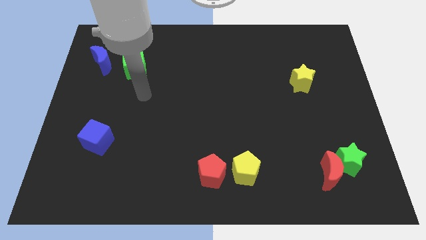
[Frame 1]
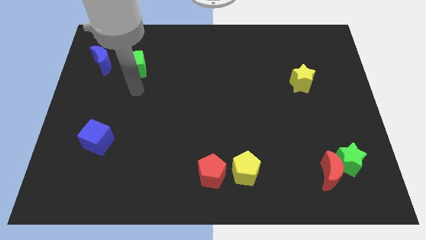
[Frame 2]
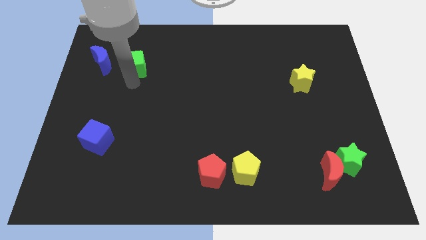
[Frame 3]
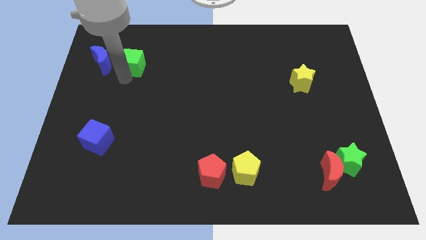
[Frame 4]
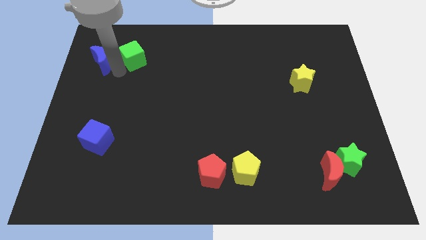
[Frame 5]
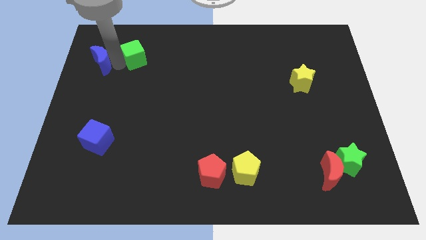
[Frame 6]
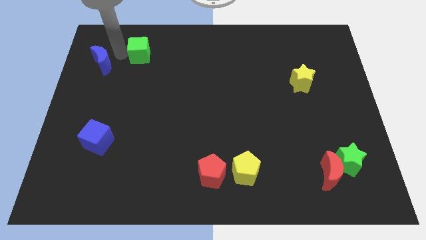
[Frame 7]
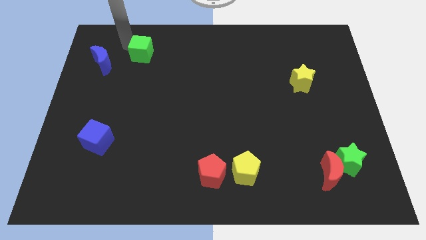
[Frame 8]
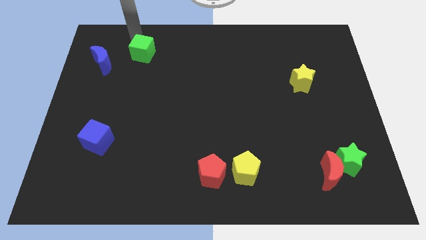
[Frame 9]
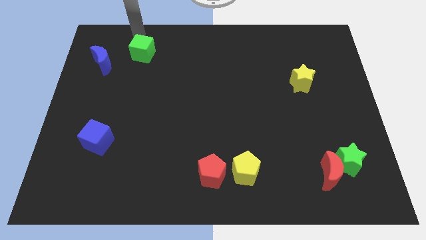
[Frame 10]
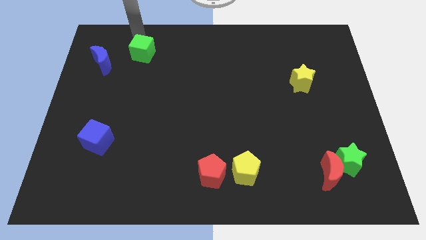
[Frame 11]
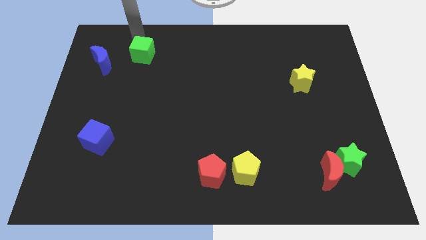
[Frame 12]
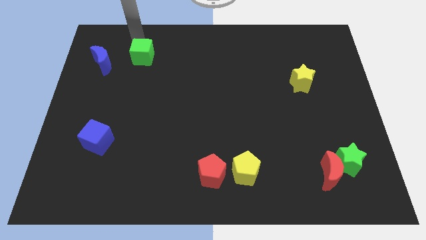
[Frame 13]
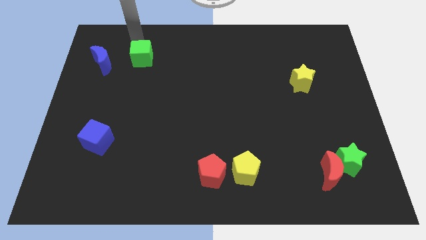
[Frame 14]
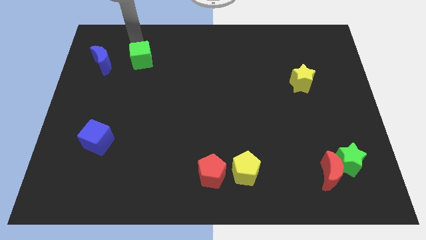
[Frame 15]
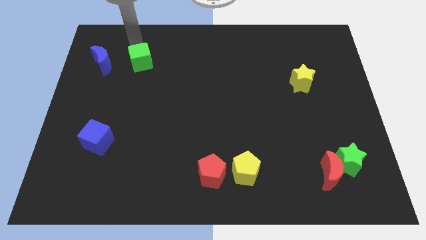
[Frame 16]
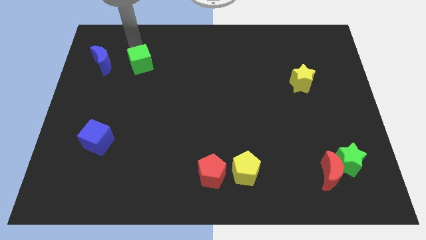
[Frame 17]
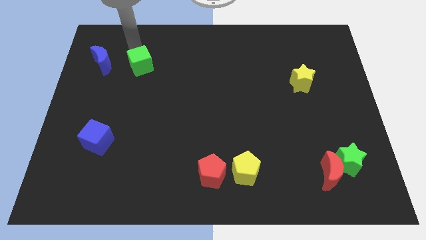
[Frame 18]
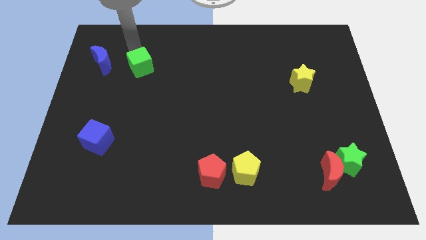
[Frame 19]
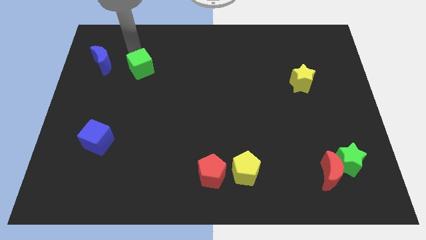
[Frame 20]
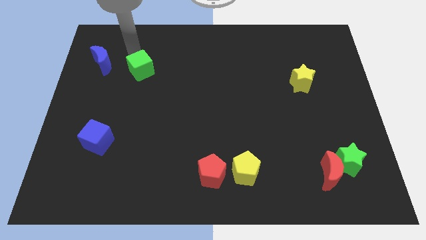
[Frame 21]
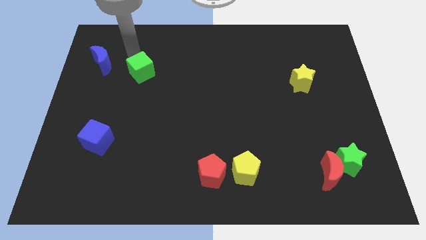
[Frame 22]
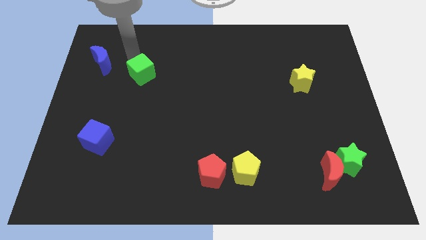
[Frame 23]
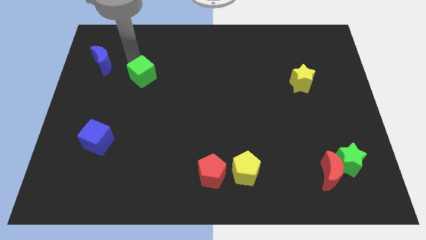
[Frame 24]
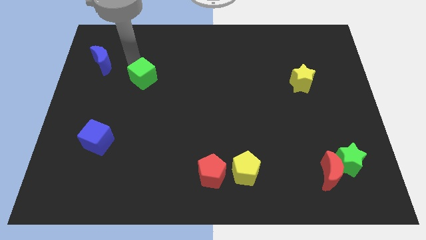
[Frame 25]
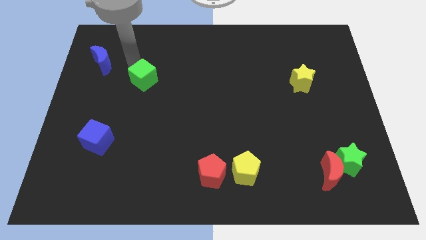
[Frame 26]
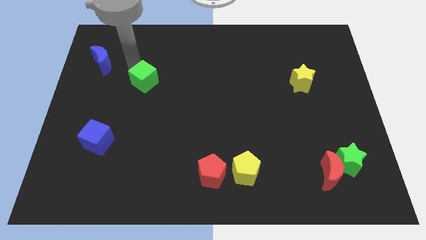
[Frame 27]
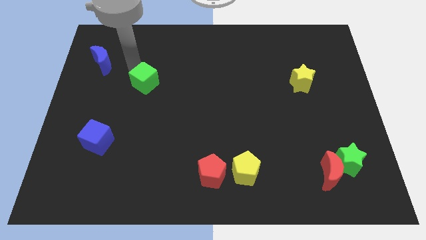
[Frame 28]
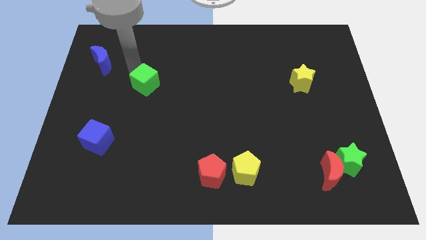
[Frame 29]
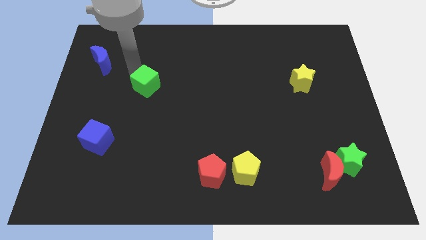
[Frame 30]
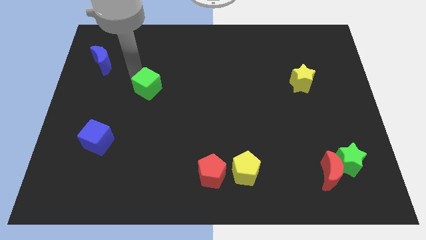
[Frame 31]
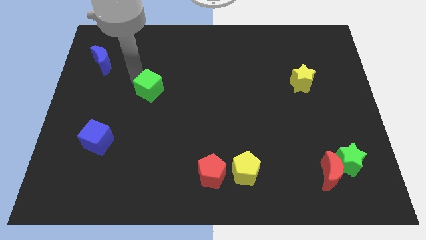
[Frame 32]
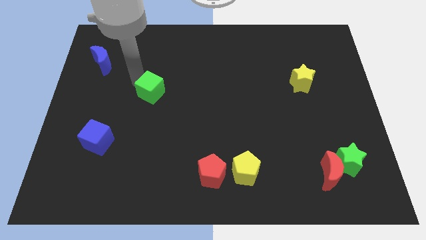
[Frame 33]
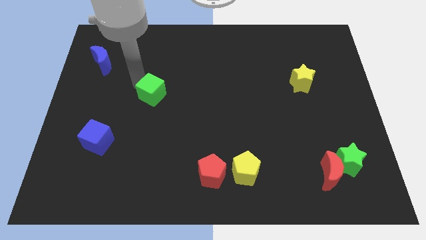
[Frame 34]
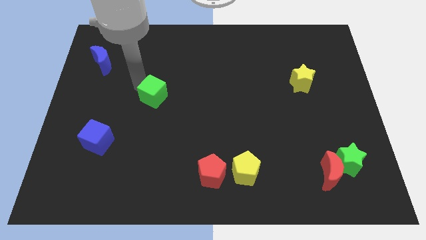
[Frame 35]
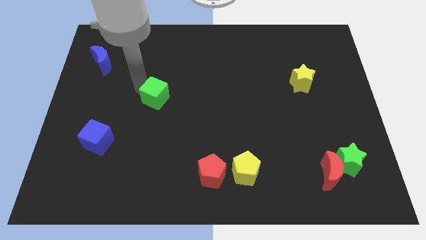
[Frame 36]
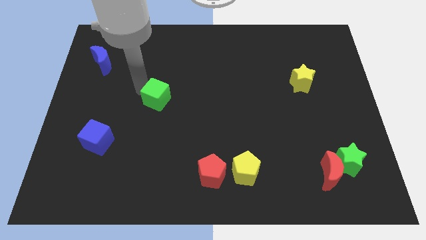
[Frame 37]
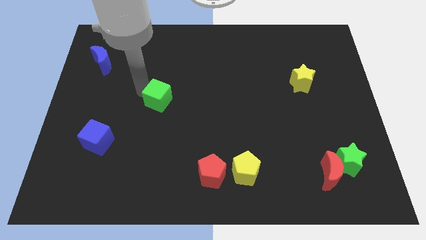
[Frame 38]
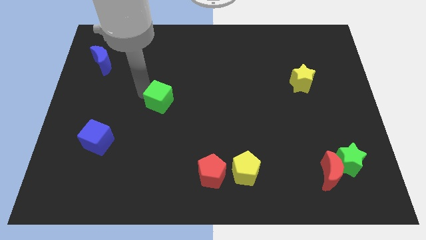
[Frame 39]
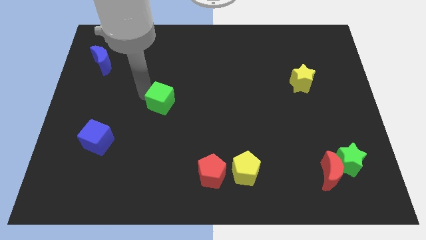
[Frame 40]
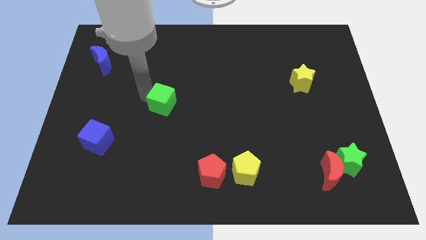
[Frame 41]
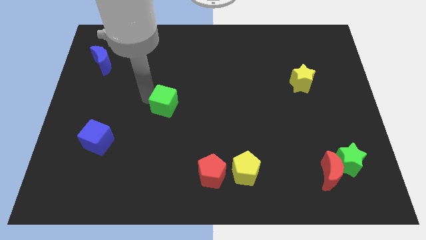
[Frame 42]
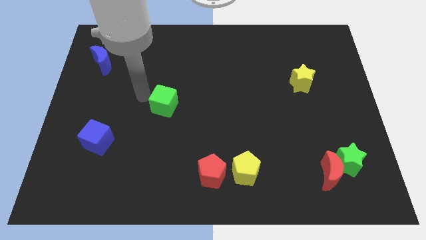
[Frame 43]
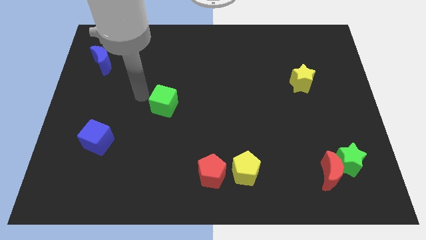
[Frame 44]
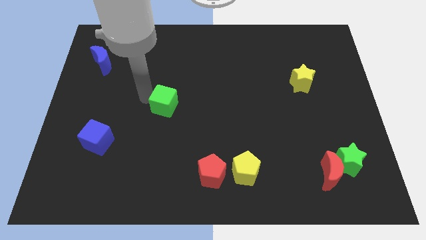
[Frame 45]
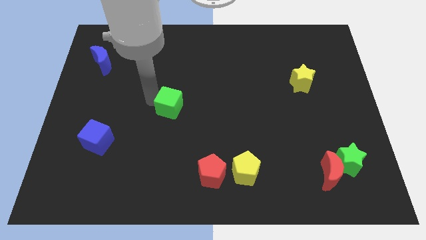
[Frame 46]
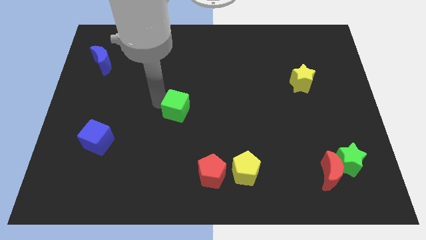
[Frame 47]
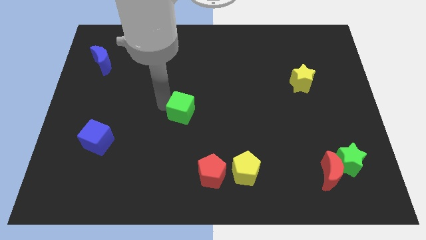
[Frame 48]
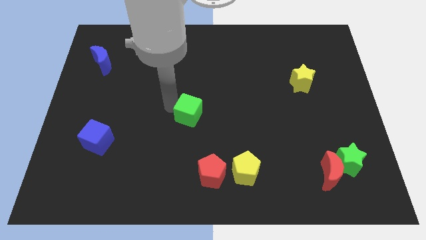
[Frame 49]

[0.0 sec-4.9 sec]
push the green cube downwards and to the right

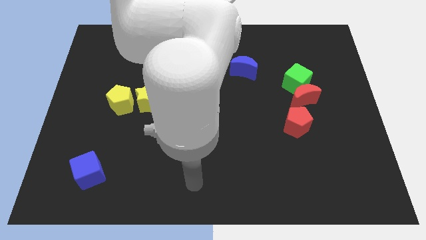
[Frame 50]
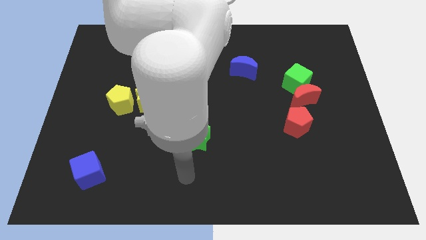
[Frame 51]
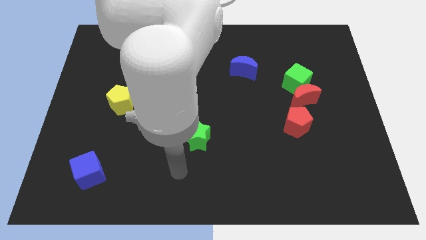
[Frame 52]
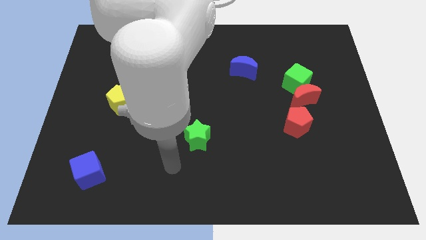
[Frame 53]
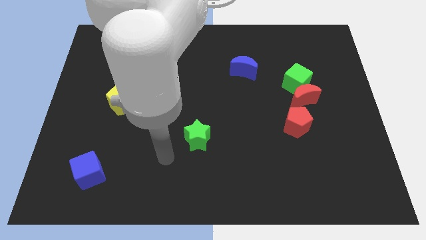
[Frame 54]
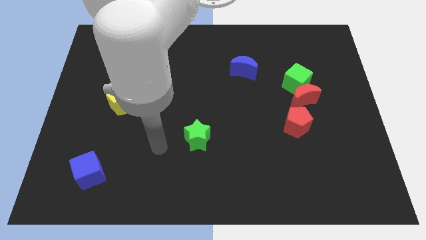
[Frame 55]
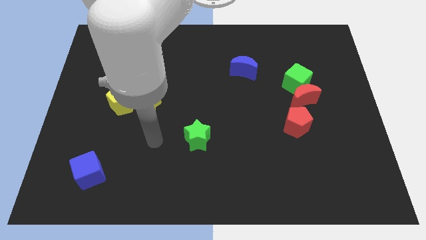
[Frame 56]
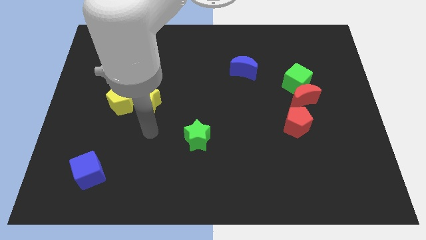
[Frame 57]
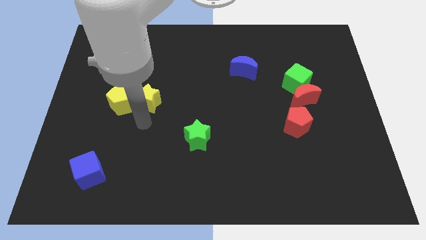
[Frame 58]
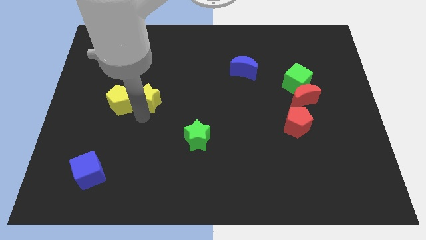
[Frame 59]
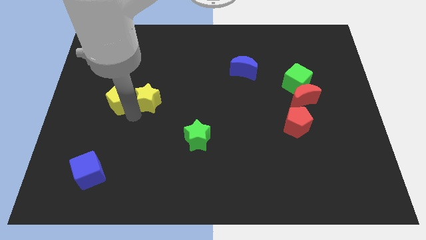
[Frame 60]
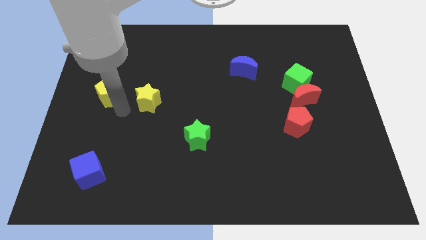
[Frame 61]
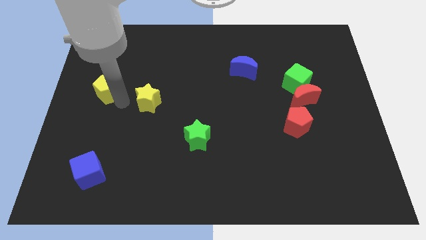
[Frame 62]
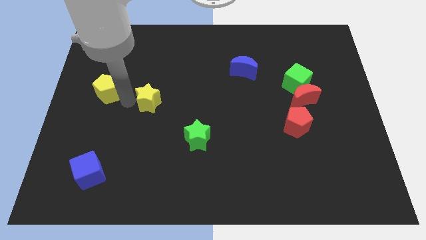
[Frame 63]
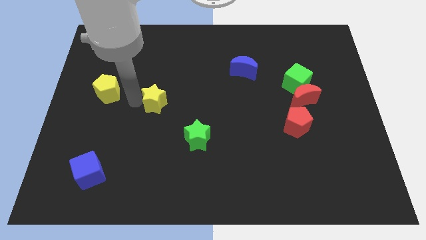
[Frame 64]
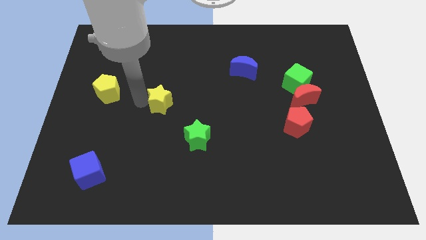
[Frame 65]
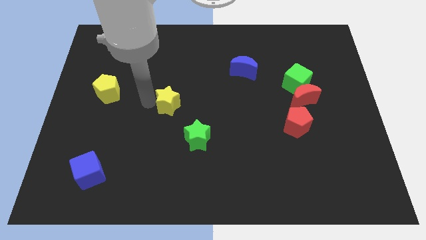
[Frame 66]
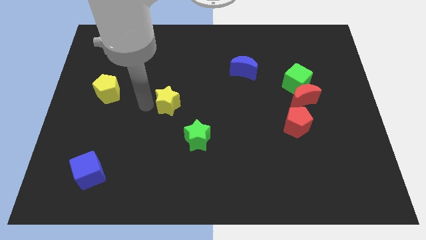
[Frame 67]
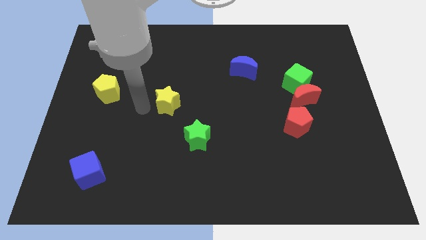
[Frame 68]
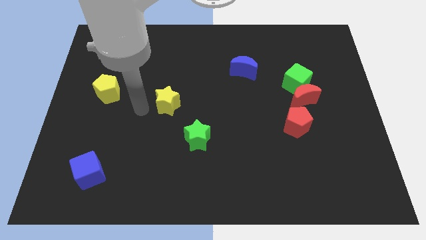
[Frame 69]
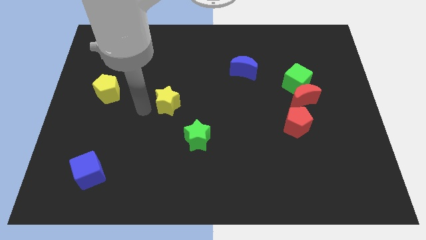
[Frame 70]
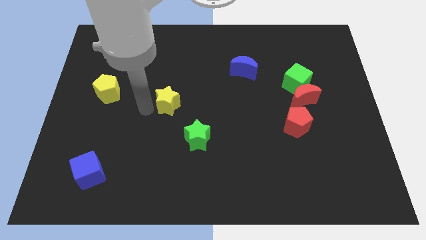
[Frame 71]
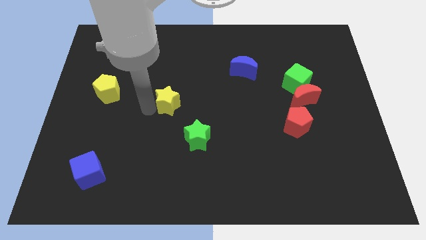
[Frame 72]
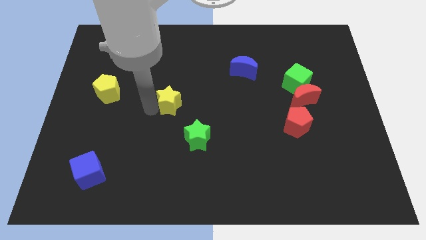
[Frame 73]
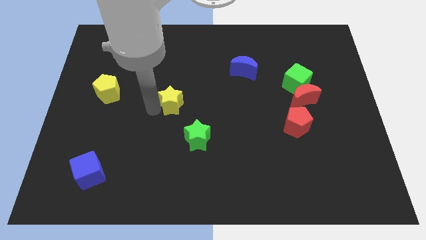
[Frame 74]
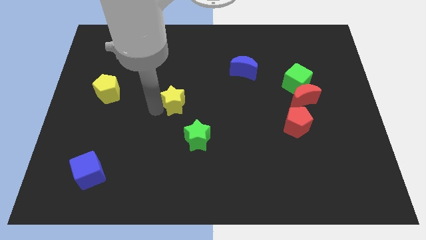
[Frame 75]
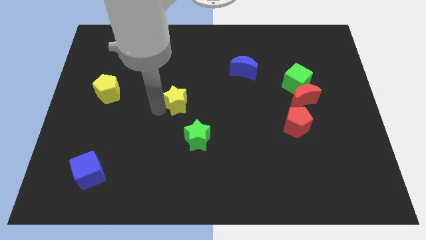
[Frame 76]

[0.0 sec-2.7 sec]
slide the yellow star to the right somewhat

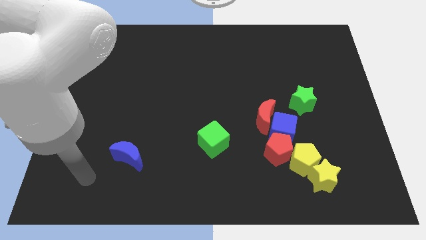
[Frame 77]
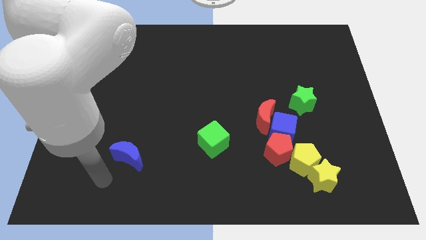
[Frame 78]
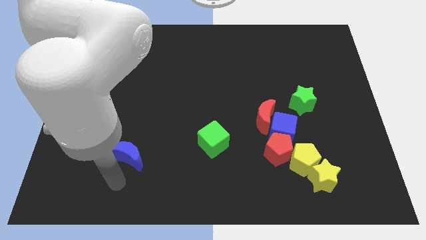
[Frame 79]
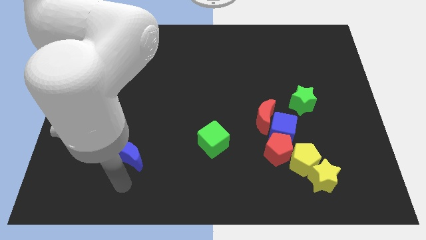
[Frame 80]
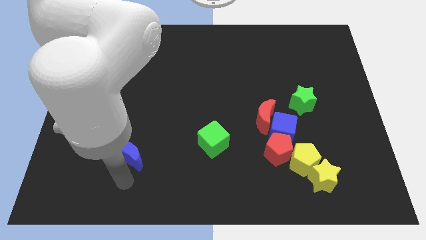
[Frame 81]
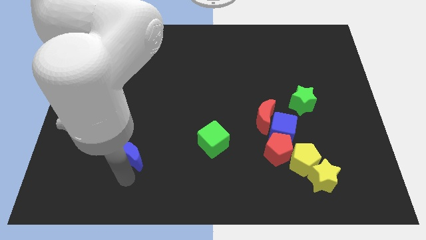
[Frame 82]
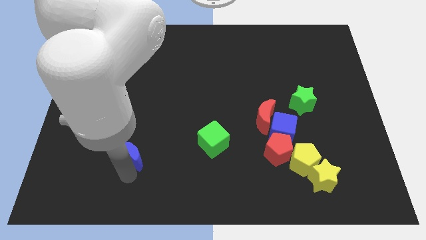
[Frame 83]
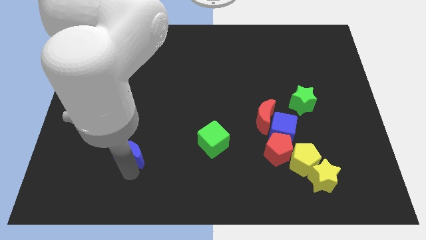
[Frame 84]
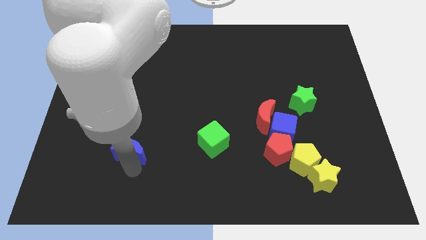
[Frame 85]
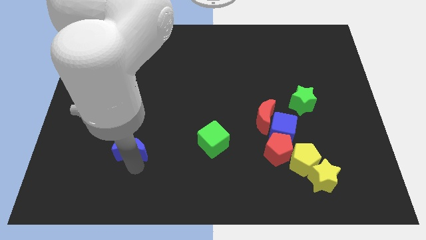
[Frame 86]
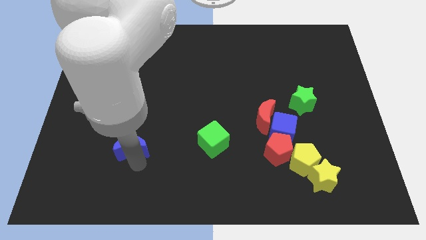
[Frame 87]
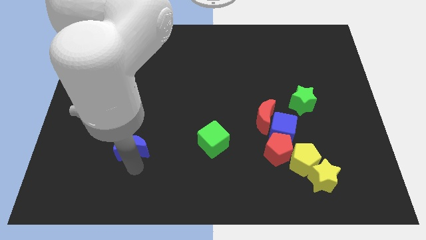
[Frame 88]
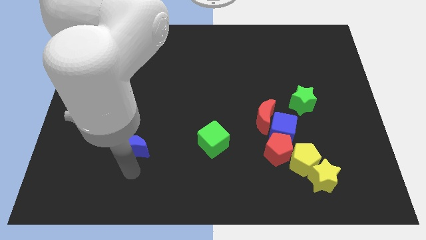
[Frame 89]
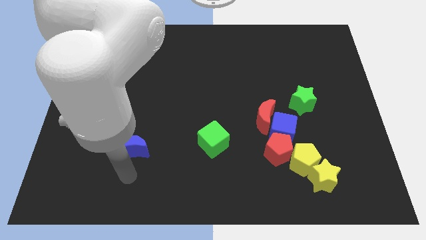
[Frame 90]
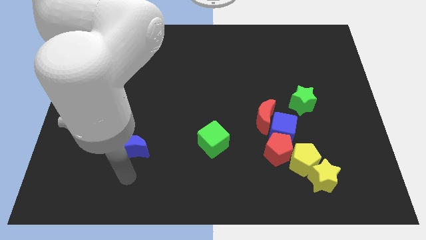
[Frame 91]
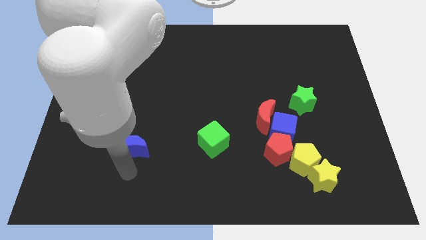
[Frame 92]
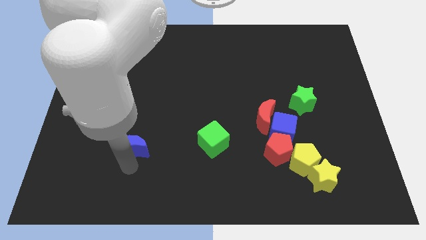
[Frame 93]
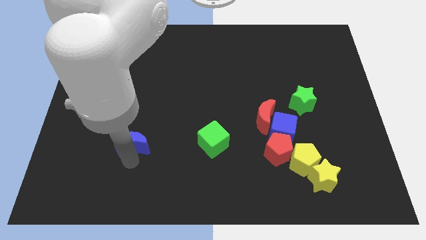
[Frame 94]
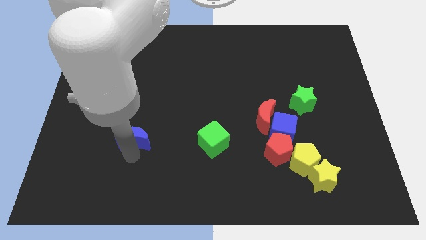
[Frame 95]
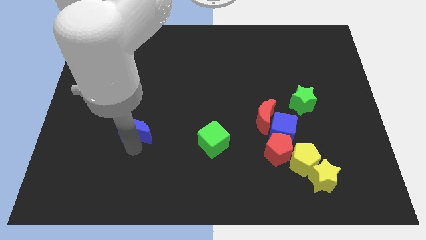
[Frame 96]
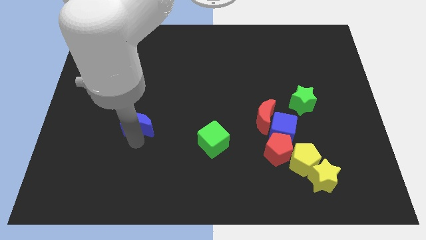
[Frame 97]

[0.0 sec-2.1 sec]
slightly push the blue moon up
